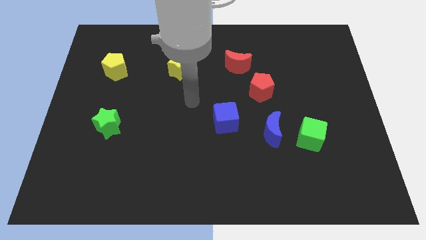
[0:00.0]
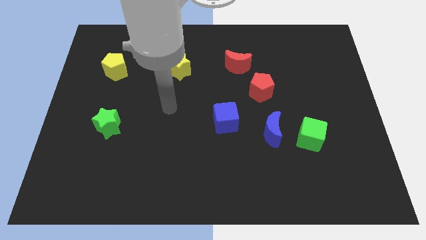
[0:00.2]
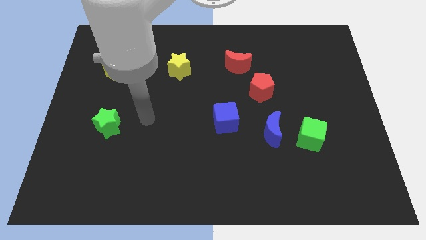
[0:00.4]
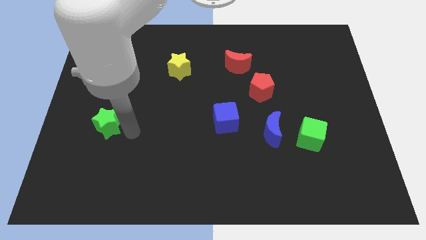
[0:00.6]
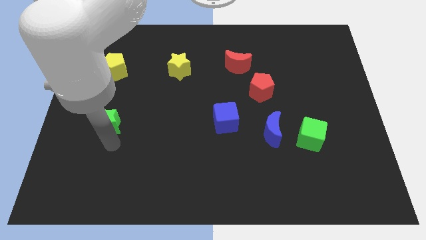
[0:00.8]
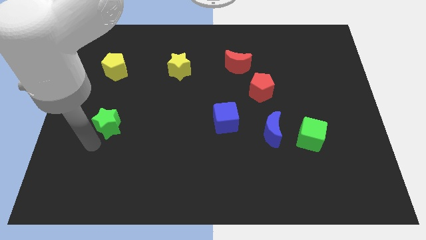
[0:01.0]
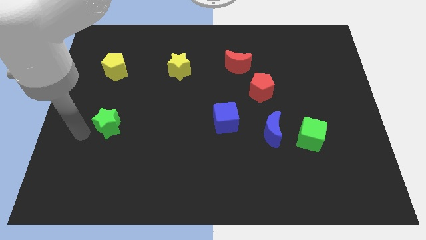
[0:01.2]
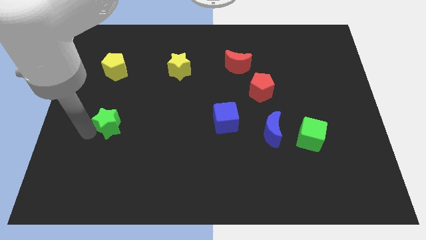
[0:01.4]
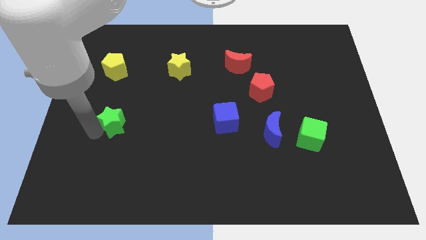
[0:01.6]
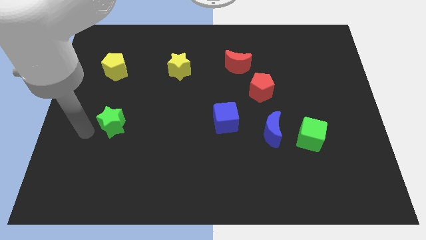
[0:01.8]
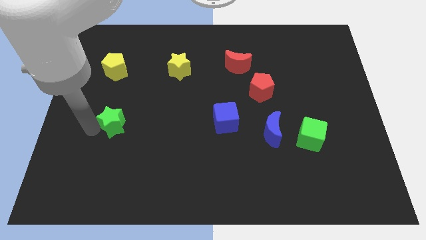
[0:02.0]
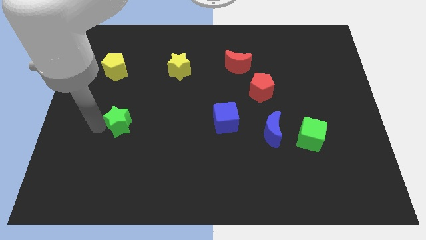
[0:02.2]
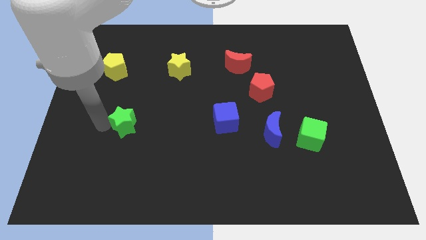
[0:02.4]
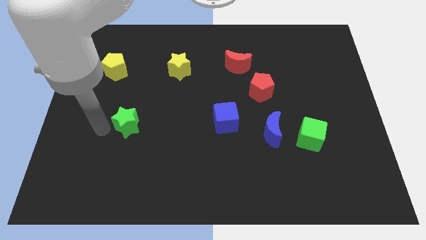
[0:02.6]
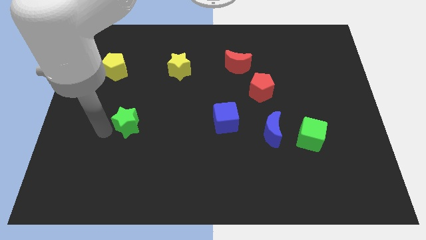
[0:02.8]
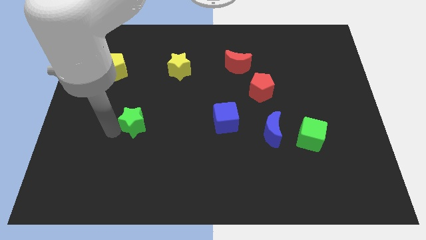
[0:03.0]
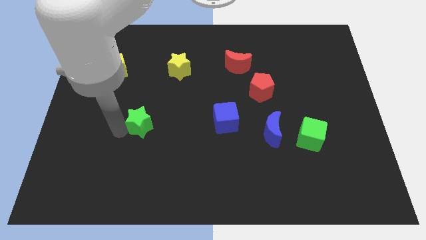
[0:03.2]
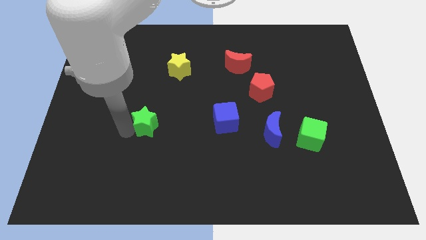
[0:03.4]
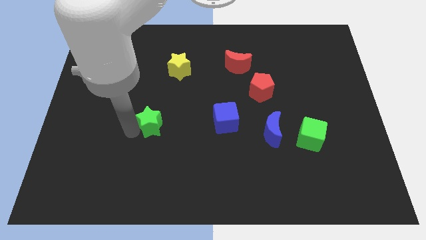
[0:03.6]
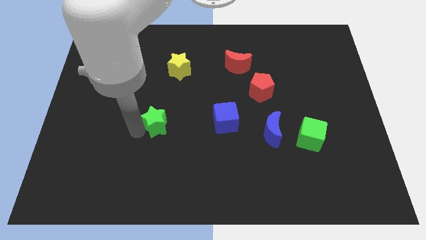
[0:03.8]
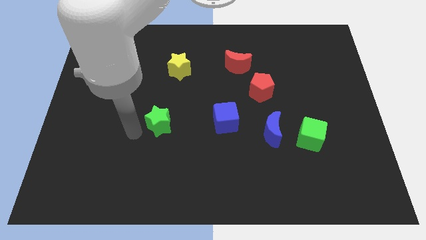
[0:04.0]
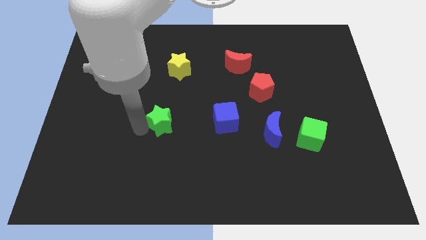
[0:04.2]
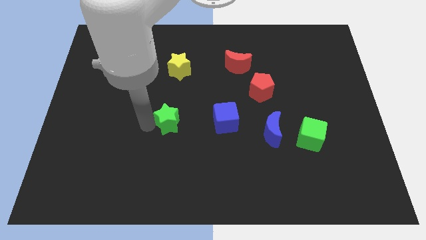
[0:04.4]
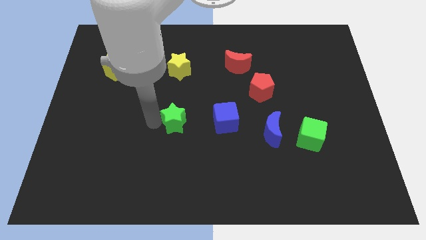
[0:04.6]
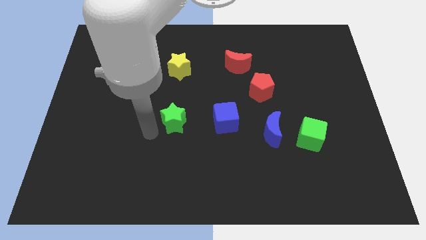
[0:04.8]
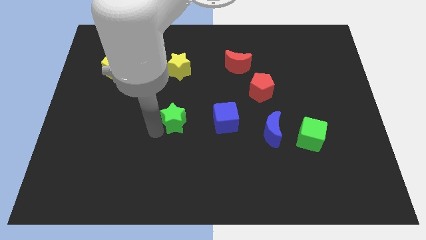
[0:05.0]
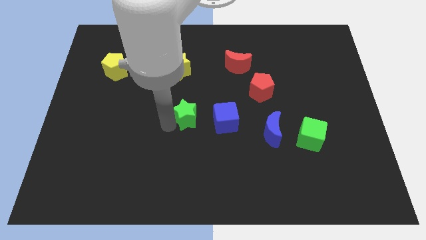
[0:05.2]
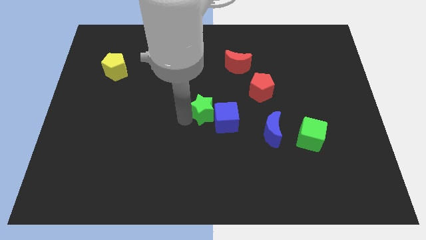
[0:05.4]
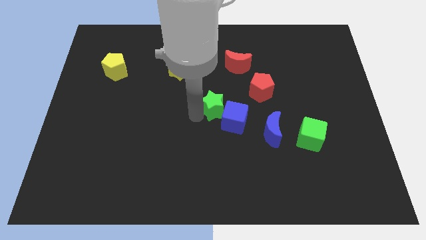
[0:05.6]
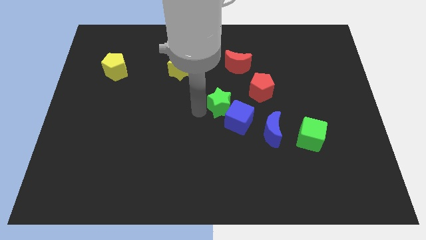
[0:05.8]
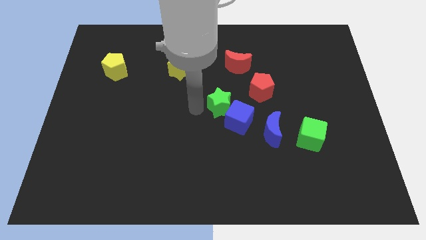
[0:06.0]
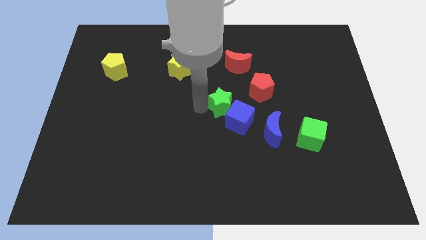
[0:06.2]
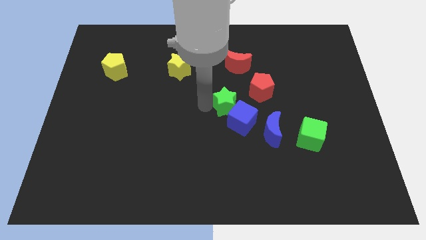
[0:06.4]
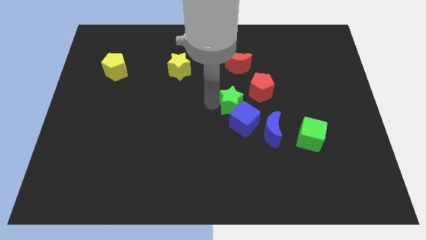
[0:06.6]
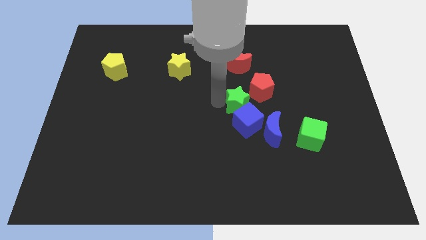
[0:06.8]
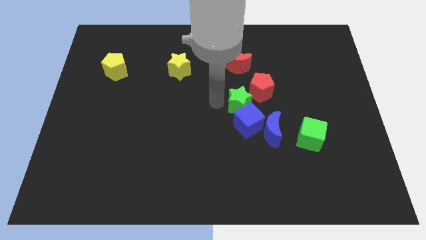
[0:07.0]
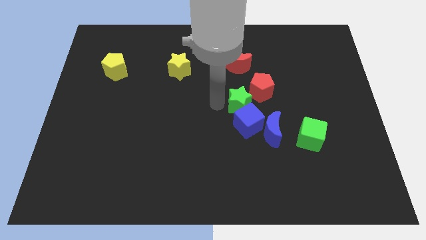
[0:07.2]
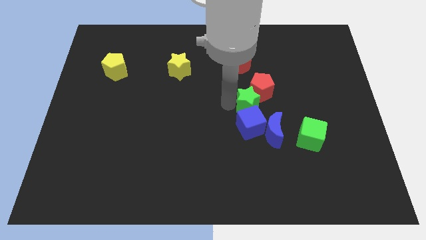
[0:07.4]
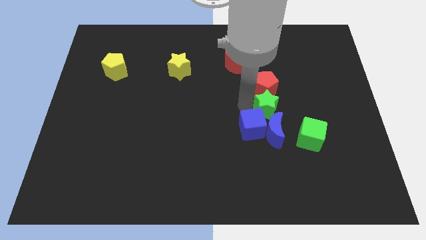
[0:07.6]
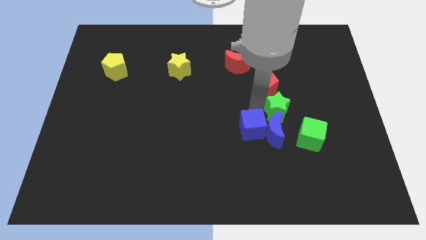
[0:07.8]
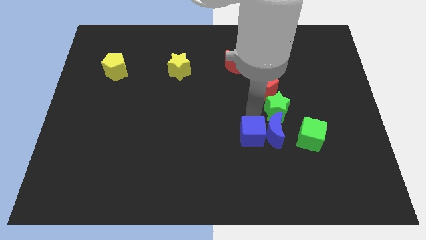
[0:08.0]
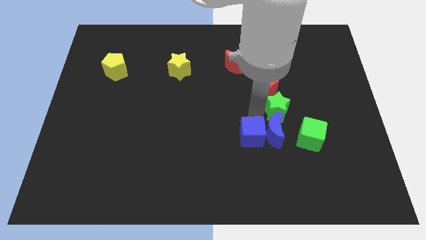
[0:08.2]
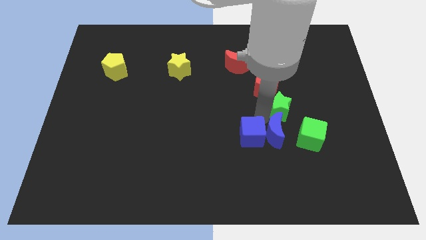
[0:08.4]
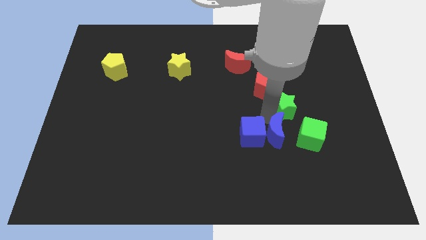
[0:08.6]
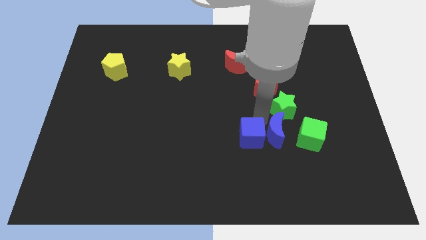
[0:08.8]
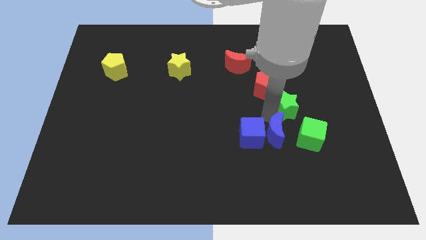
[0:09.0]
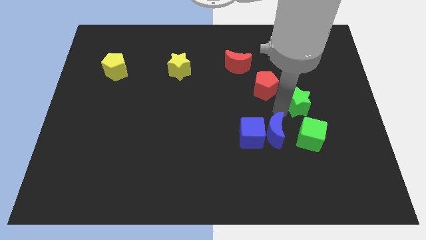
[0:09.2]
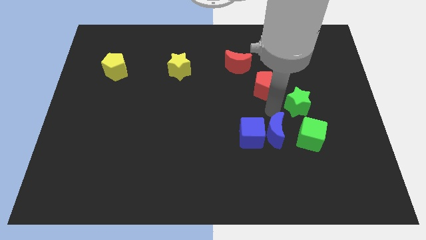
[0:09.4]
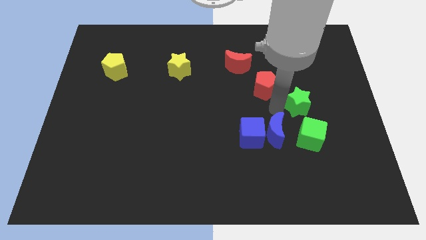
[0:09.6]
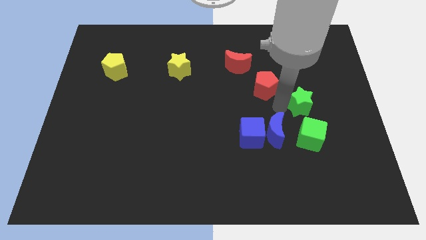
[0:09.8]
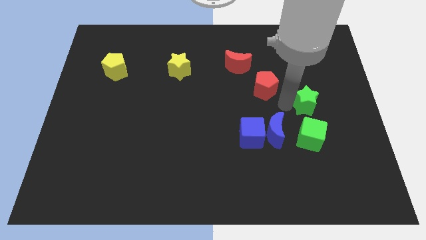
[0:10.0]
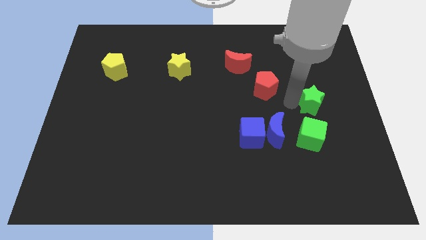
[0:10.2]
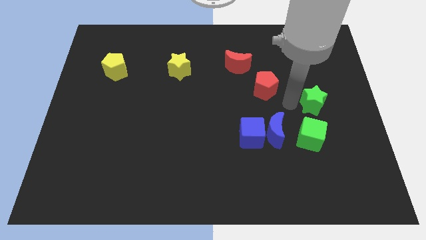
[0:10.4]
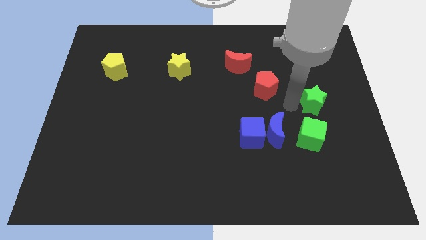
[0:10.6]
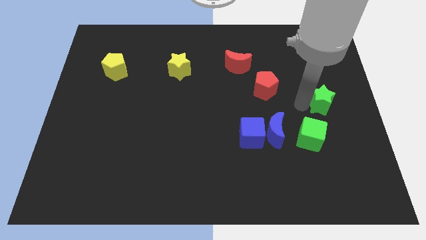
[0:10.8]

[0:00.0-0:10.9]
push the green star to the right side of the board
